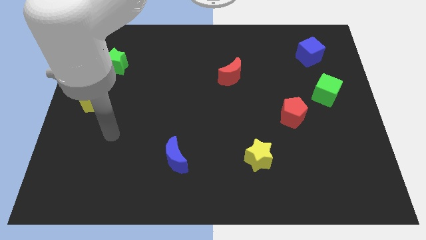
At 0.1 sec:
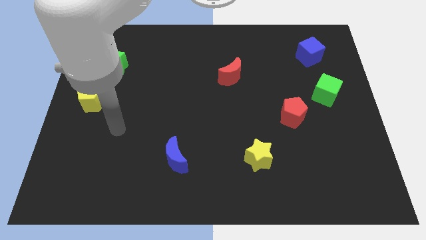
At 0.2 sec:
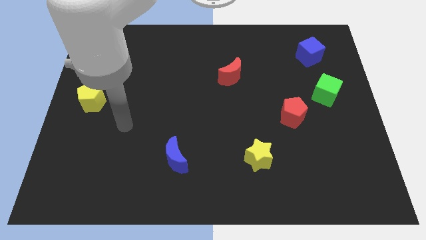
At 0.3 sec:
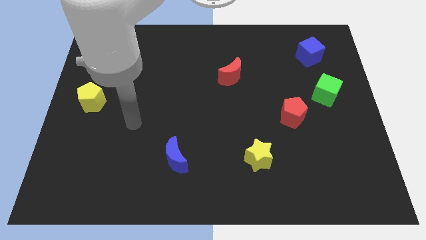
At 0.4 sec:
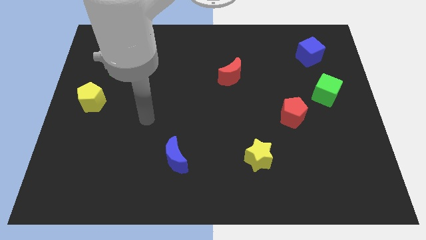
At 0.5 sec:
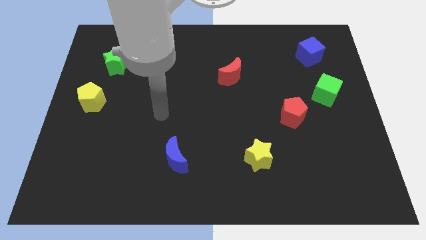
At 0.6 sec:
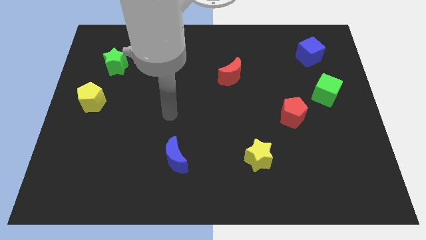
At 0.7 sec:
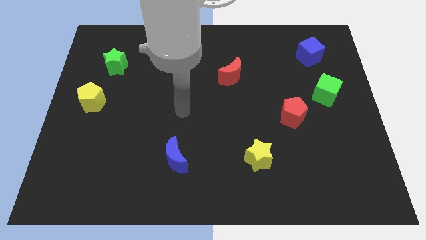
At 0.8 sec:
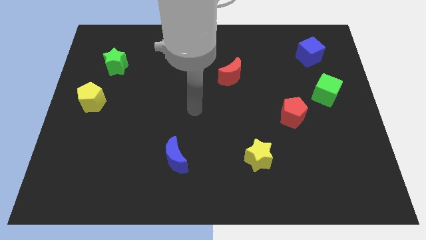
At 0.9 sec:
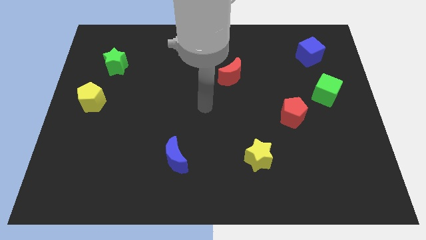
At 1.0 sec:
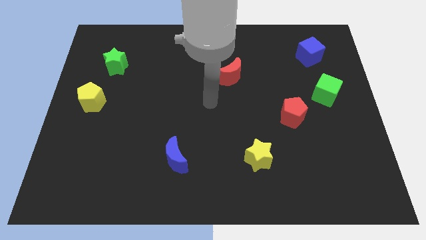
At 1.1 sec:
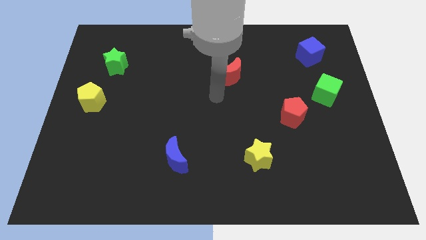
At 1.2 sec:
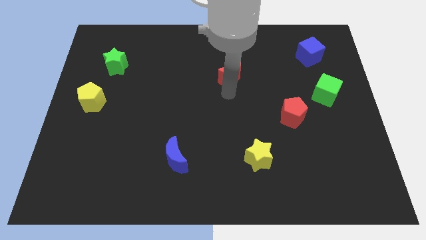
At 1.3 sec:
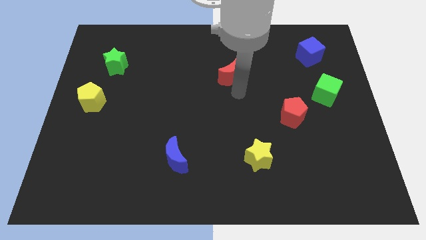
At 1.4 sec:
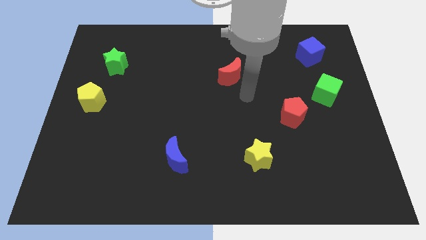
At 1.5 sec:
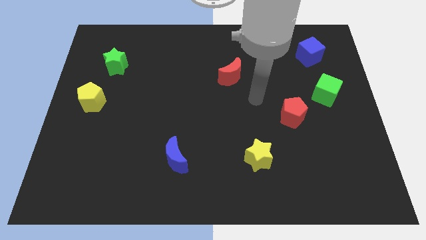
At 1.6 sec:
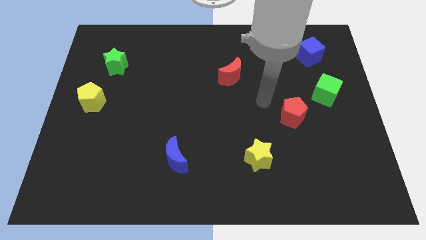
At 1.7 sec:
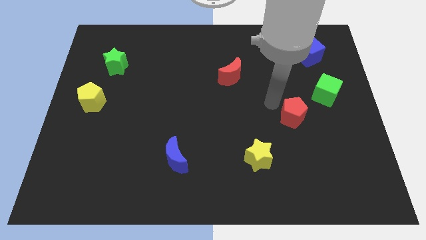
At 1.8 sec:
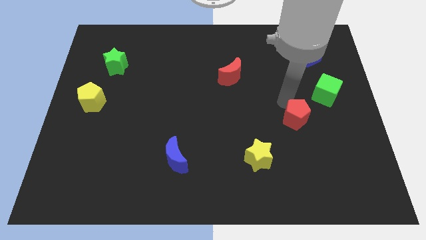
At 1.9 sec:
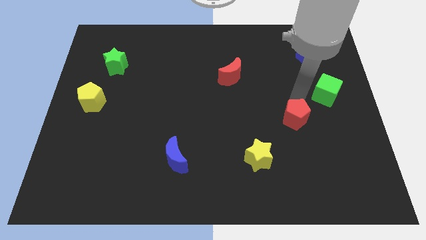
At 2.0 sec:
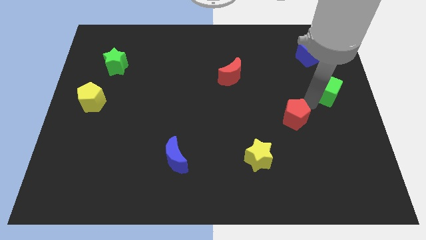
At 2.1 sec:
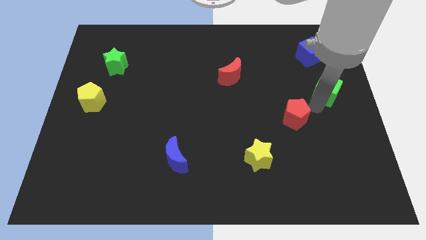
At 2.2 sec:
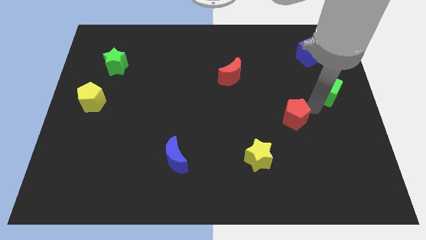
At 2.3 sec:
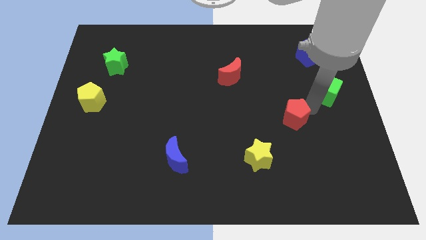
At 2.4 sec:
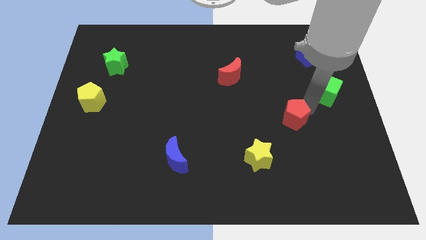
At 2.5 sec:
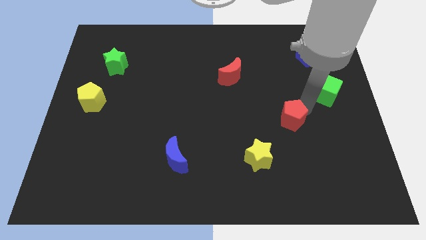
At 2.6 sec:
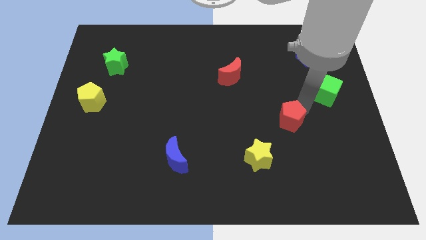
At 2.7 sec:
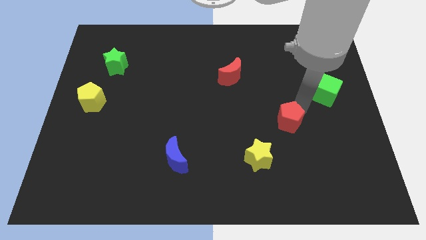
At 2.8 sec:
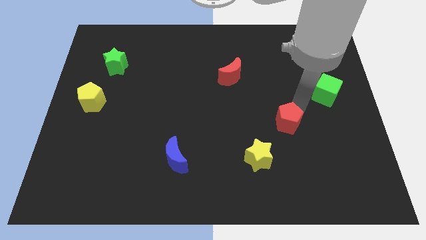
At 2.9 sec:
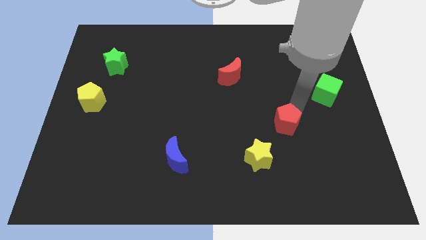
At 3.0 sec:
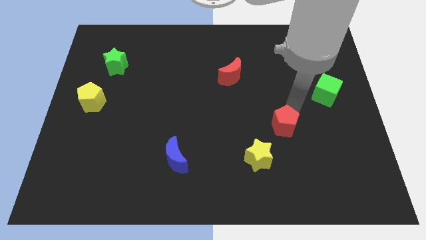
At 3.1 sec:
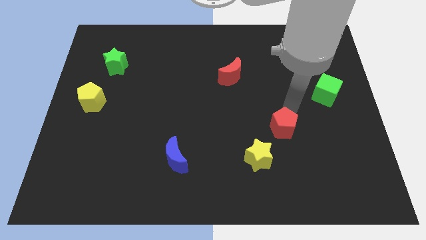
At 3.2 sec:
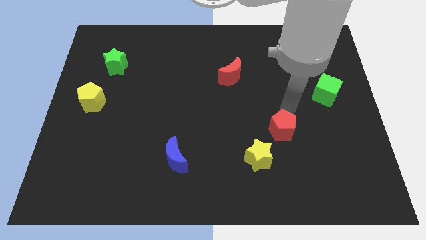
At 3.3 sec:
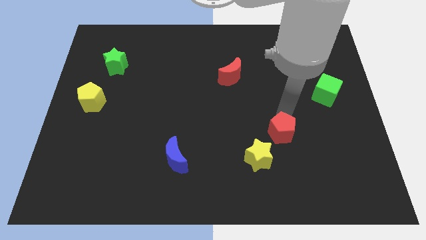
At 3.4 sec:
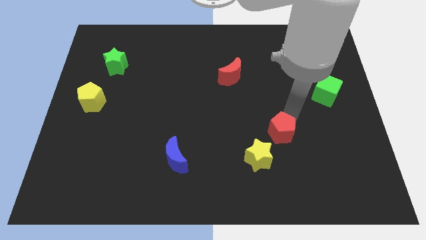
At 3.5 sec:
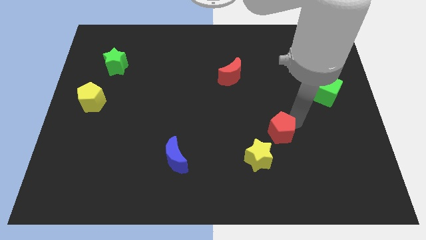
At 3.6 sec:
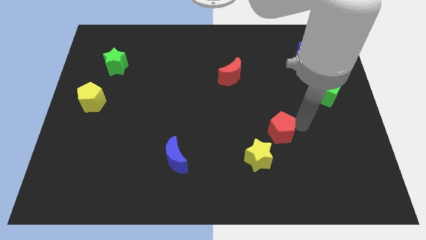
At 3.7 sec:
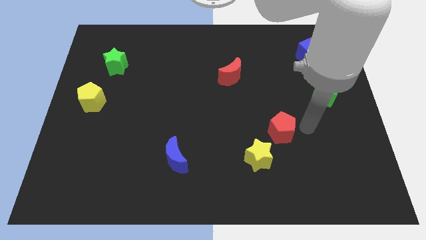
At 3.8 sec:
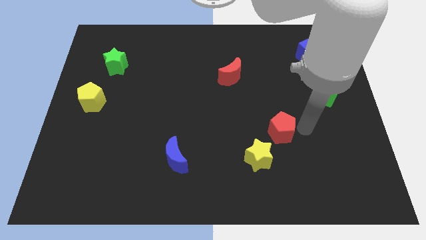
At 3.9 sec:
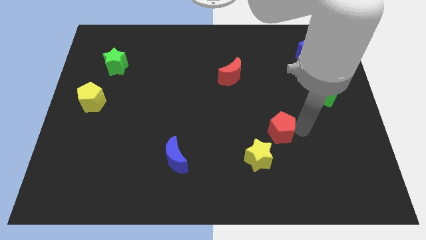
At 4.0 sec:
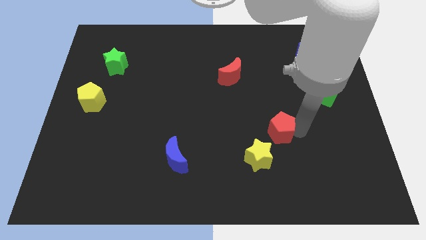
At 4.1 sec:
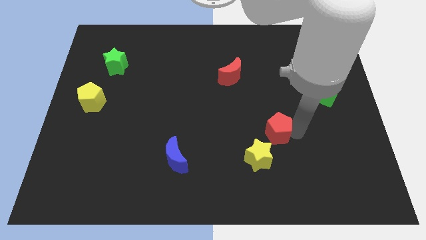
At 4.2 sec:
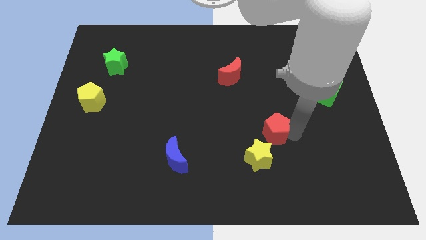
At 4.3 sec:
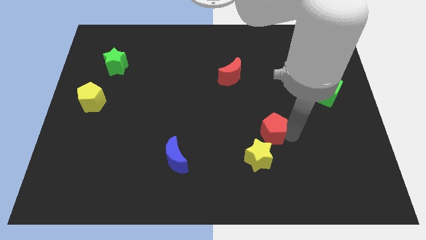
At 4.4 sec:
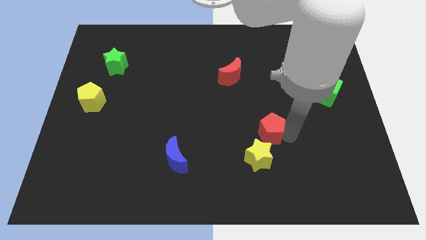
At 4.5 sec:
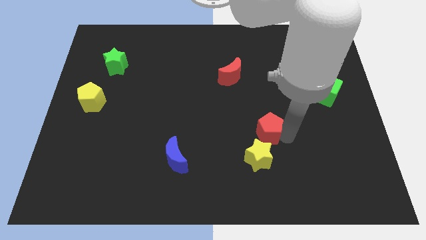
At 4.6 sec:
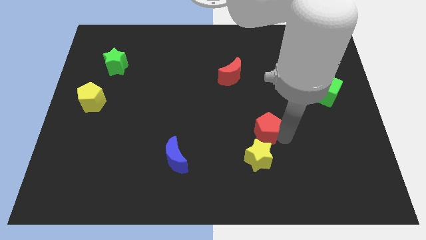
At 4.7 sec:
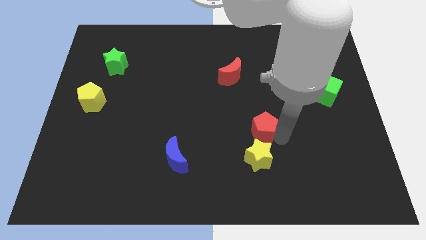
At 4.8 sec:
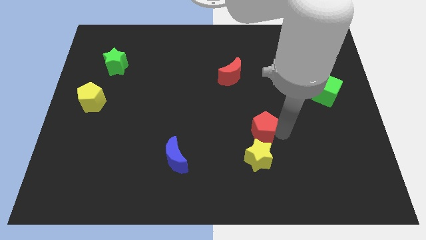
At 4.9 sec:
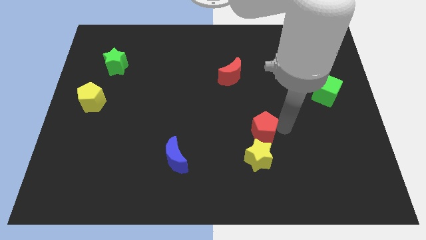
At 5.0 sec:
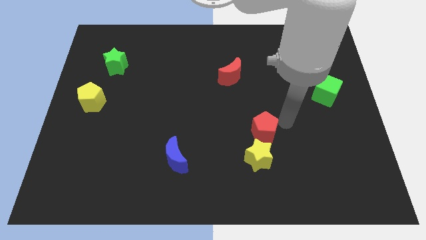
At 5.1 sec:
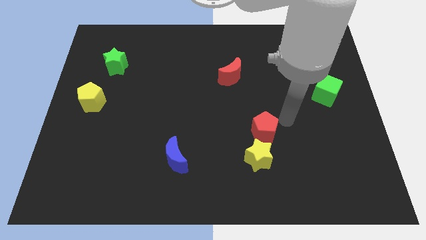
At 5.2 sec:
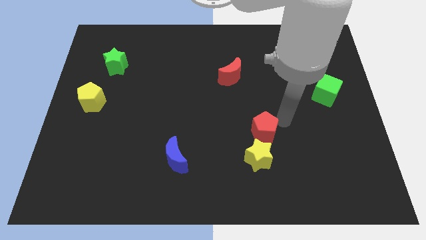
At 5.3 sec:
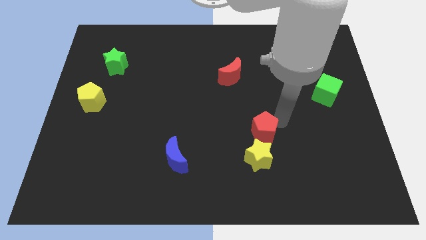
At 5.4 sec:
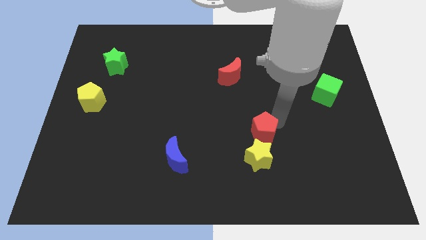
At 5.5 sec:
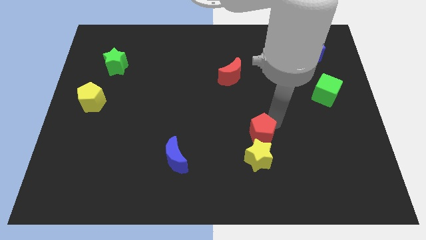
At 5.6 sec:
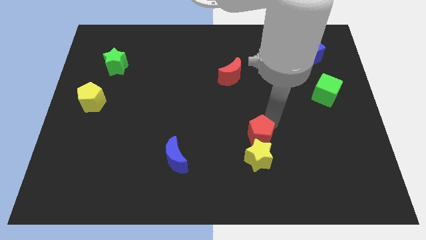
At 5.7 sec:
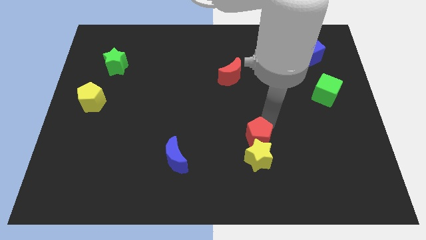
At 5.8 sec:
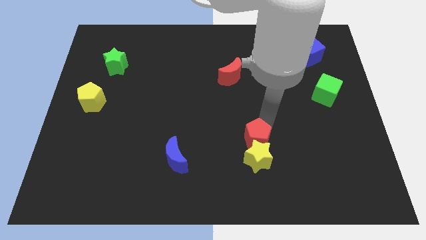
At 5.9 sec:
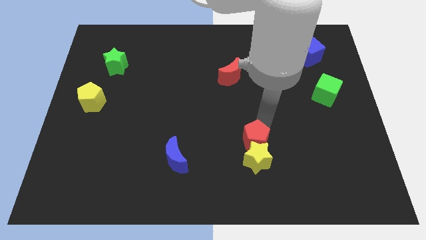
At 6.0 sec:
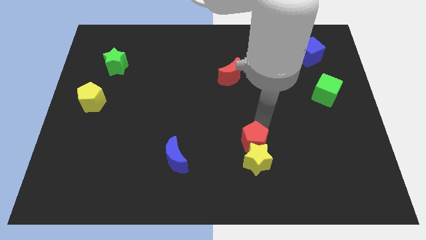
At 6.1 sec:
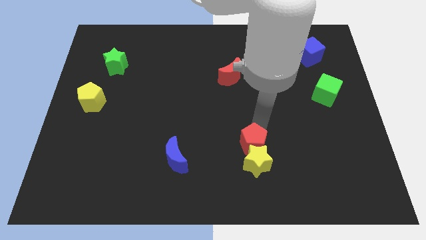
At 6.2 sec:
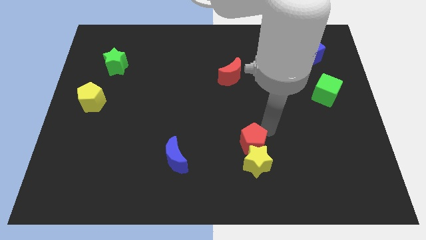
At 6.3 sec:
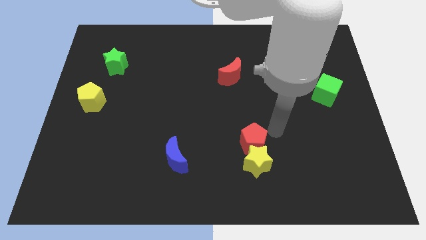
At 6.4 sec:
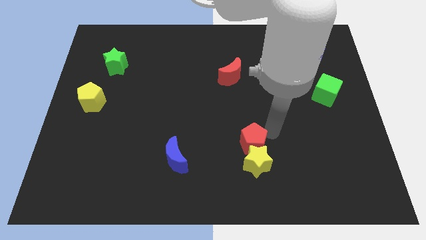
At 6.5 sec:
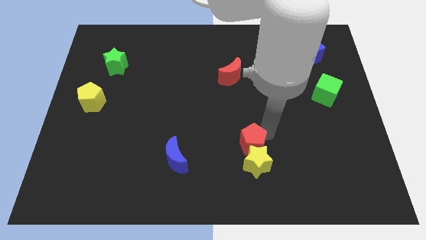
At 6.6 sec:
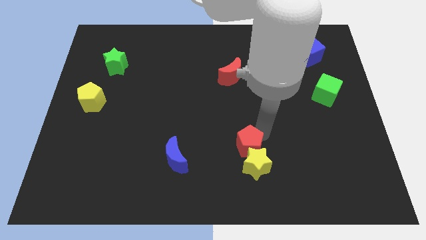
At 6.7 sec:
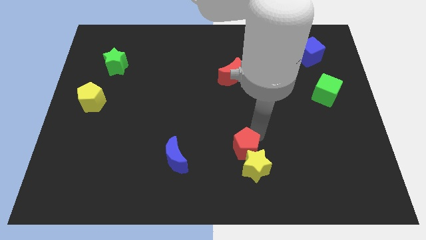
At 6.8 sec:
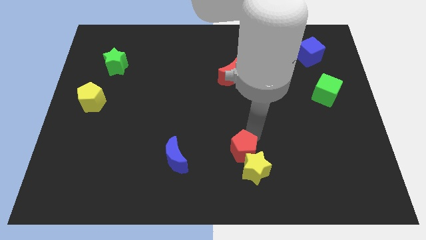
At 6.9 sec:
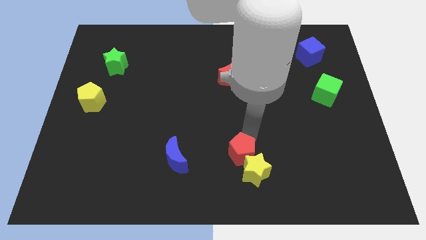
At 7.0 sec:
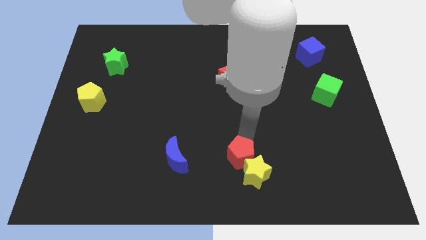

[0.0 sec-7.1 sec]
slide the red pentagon left of the yellow star
